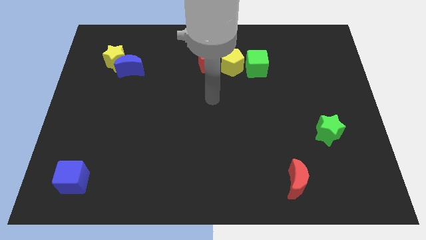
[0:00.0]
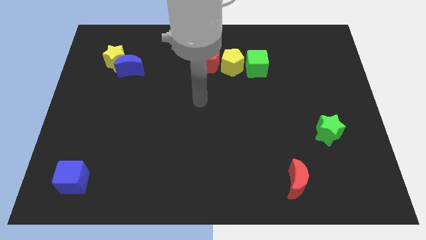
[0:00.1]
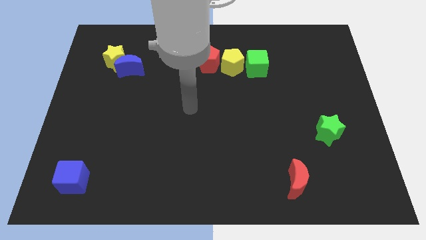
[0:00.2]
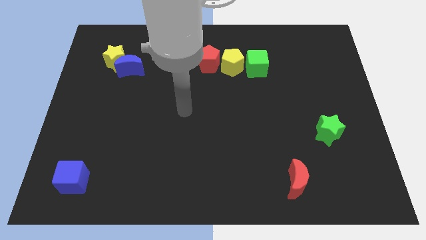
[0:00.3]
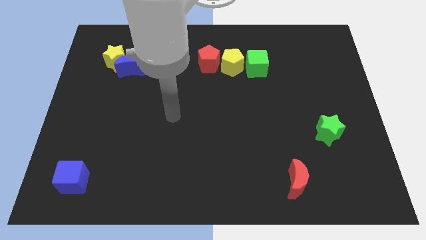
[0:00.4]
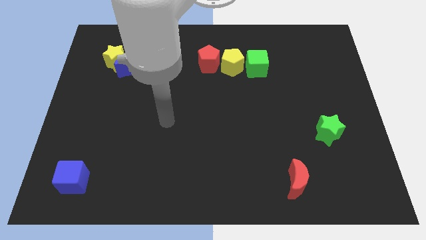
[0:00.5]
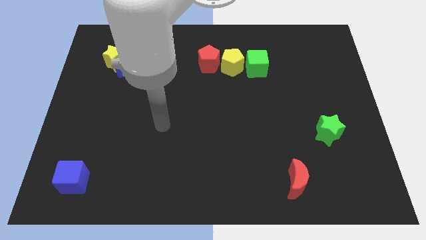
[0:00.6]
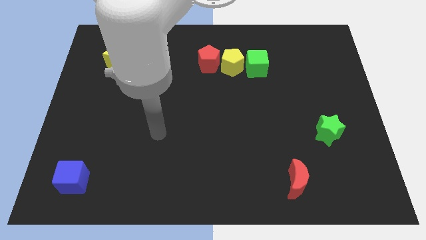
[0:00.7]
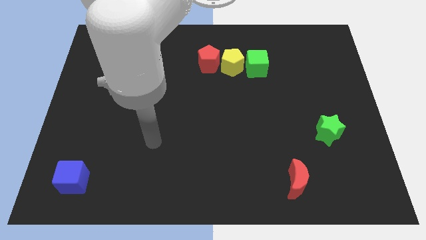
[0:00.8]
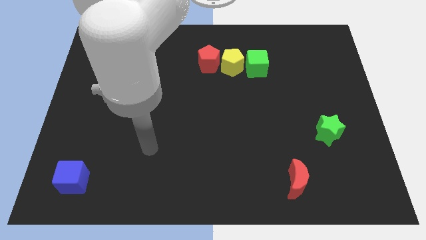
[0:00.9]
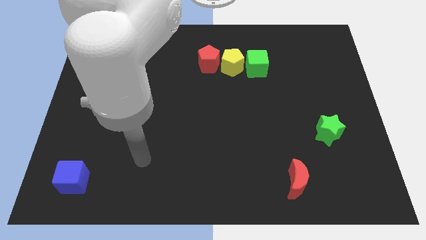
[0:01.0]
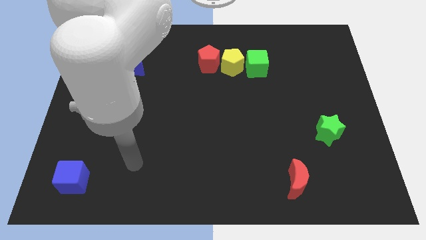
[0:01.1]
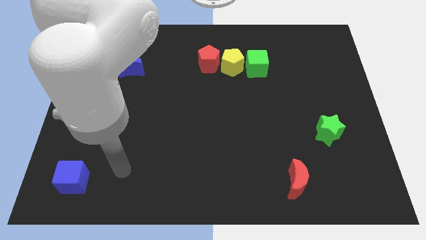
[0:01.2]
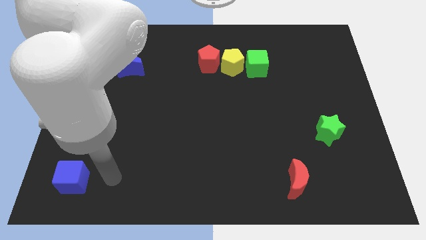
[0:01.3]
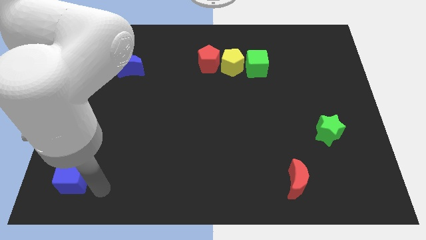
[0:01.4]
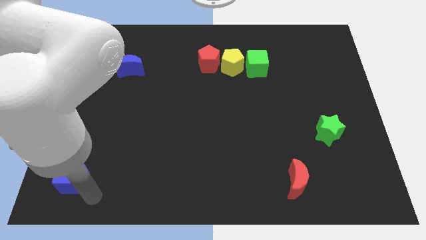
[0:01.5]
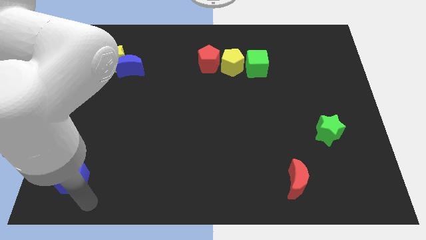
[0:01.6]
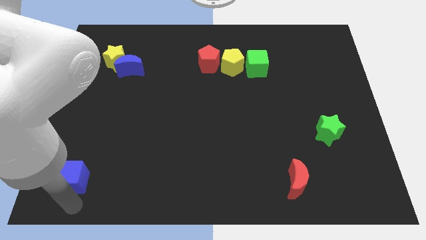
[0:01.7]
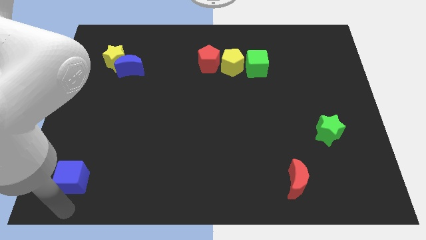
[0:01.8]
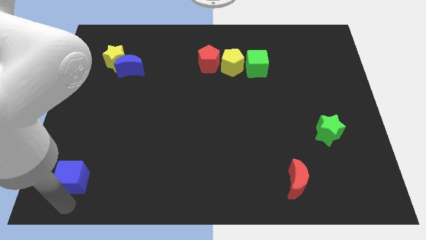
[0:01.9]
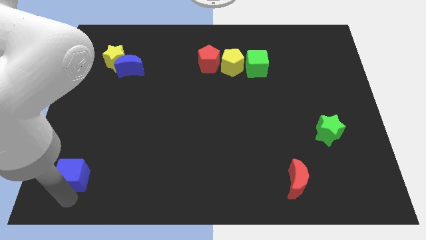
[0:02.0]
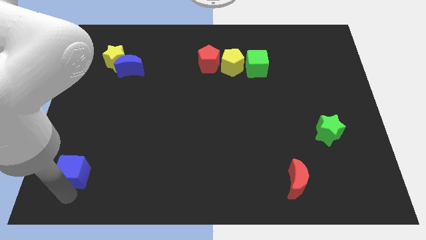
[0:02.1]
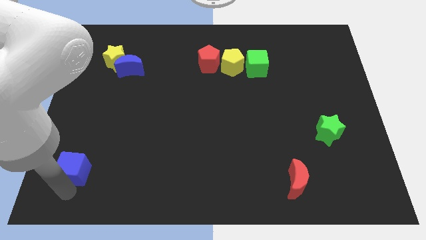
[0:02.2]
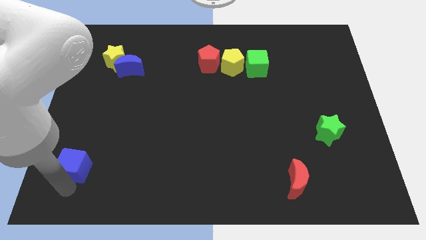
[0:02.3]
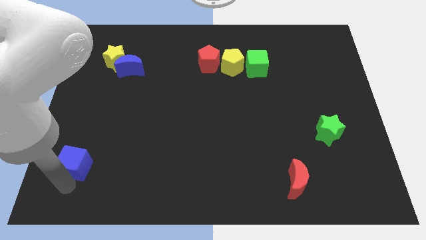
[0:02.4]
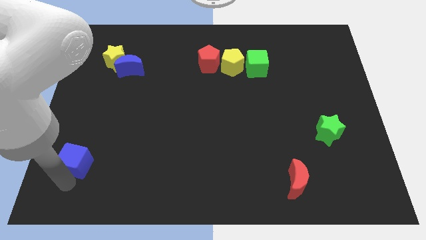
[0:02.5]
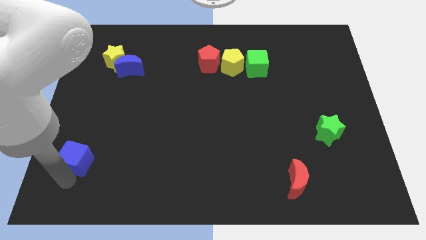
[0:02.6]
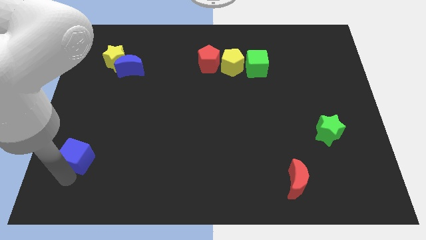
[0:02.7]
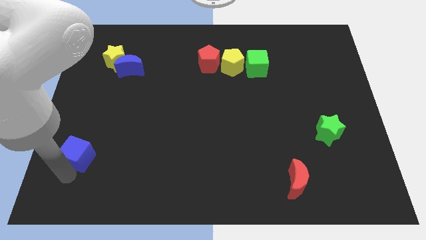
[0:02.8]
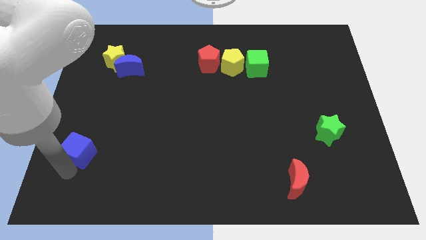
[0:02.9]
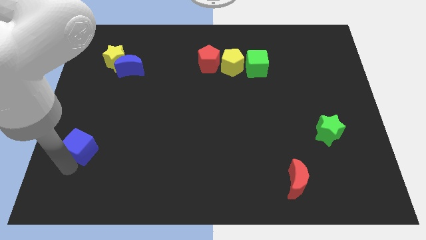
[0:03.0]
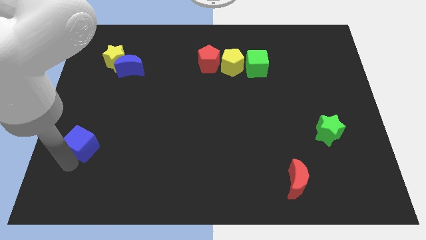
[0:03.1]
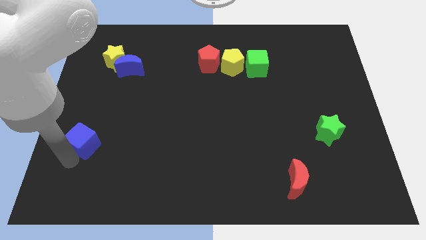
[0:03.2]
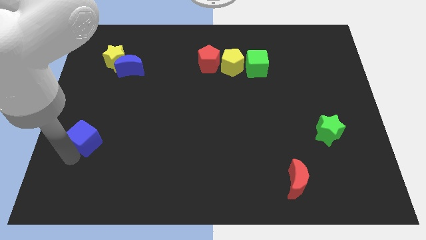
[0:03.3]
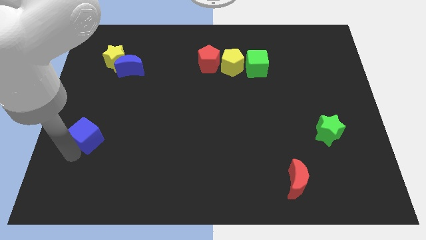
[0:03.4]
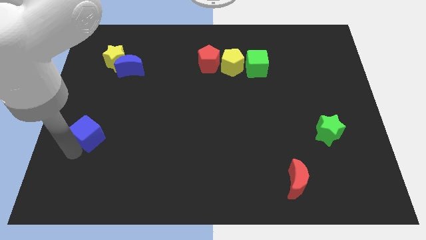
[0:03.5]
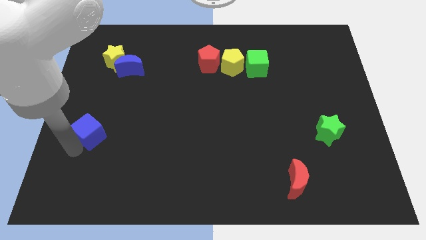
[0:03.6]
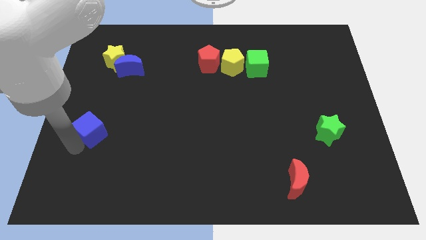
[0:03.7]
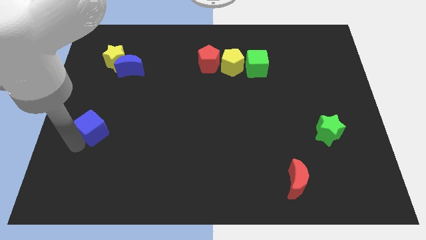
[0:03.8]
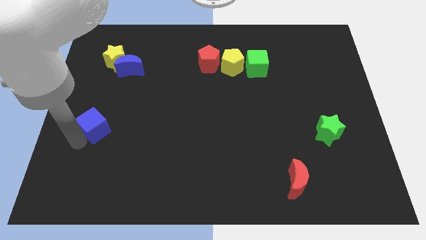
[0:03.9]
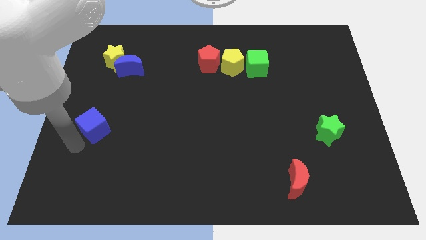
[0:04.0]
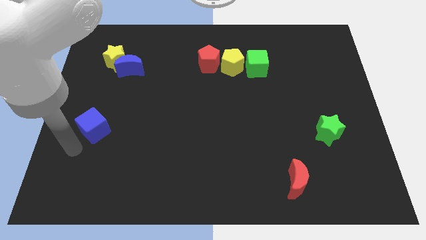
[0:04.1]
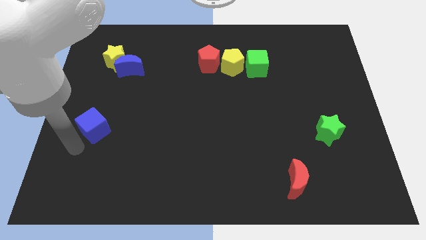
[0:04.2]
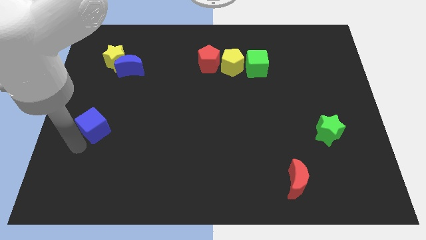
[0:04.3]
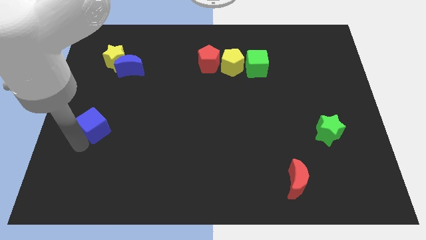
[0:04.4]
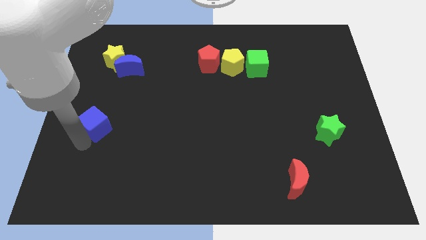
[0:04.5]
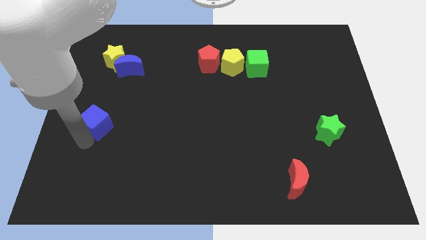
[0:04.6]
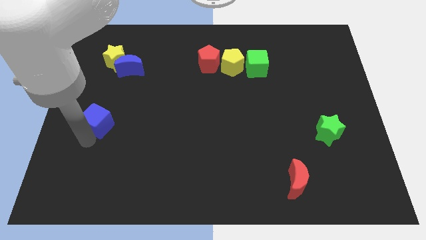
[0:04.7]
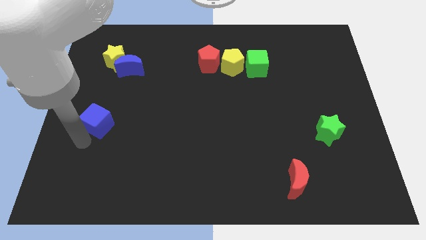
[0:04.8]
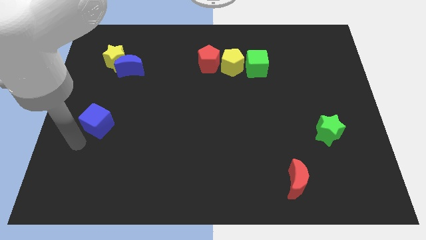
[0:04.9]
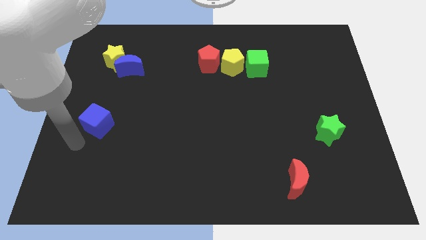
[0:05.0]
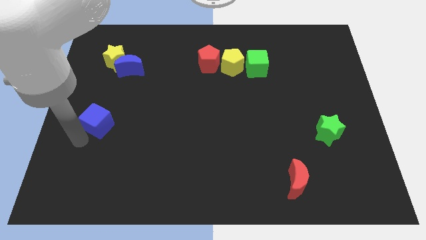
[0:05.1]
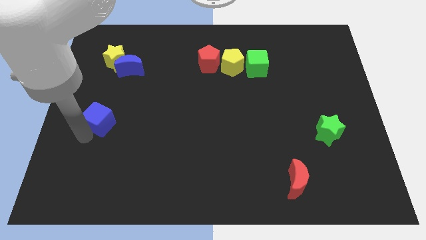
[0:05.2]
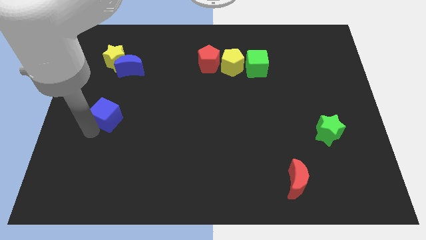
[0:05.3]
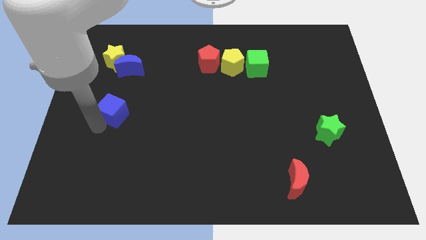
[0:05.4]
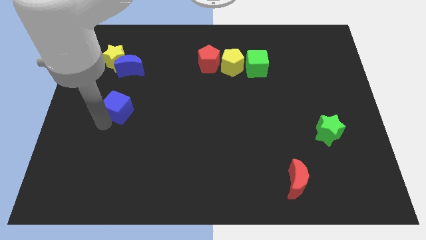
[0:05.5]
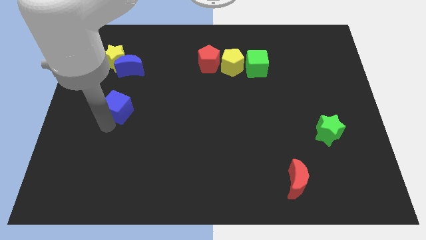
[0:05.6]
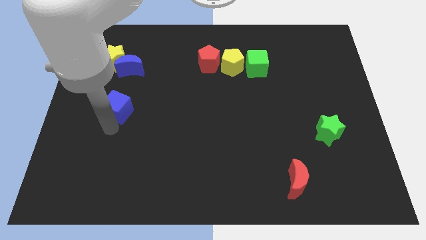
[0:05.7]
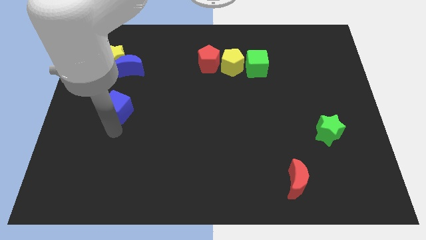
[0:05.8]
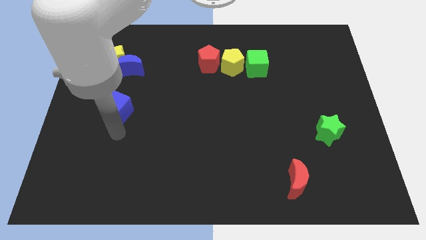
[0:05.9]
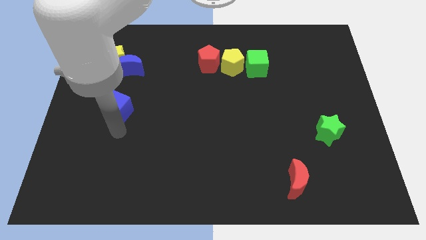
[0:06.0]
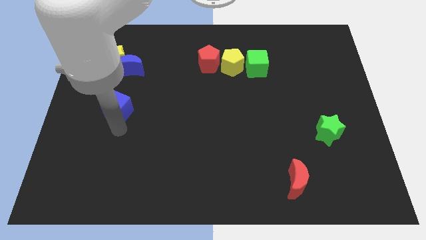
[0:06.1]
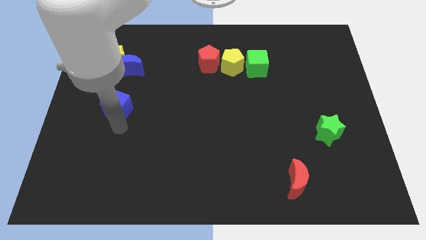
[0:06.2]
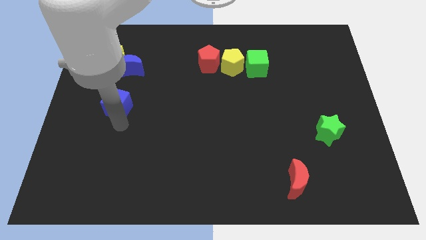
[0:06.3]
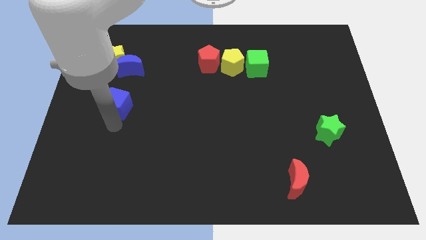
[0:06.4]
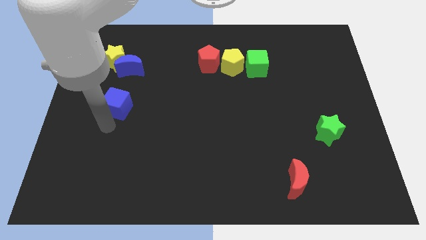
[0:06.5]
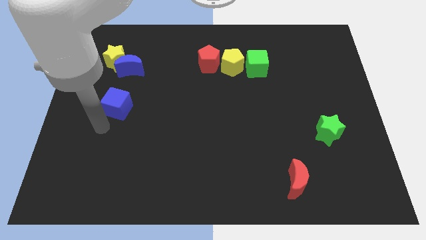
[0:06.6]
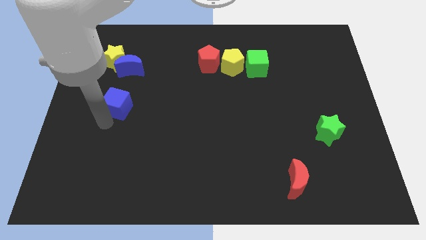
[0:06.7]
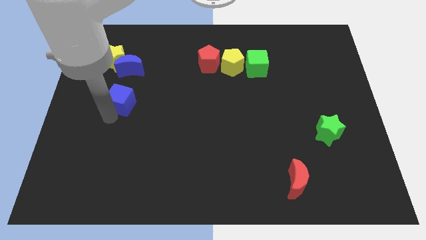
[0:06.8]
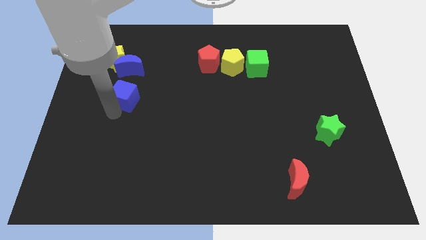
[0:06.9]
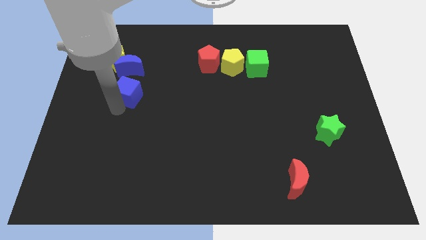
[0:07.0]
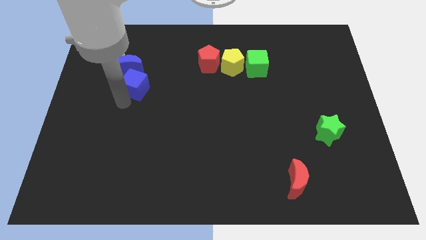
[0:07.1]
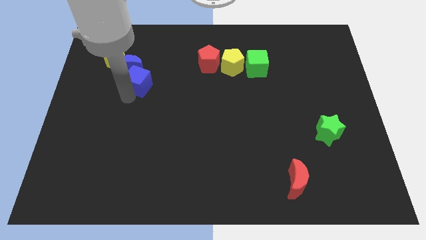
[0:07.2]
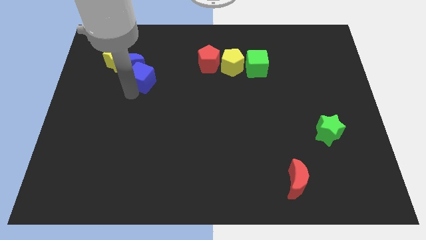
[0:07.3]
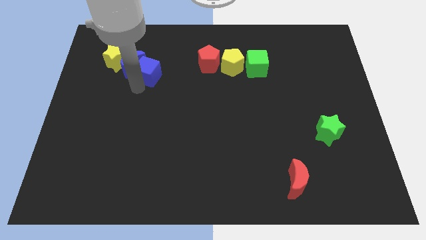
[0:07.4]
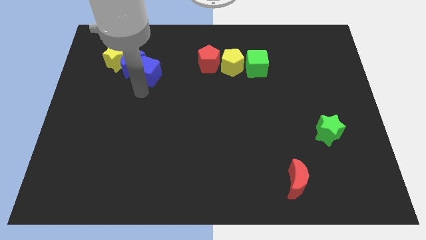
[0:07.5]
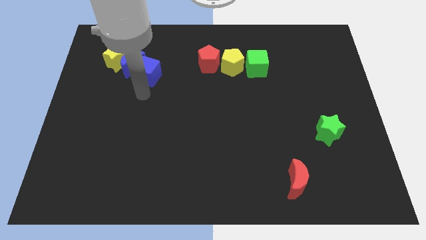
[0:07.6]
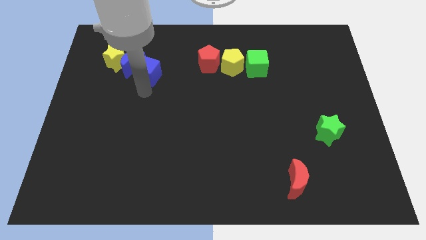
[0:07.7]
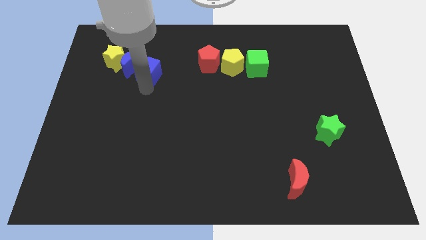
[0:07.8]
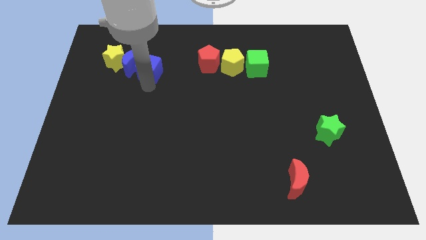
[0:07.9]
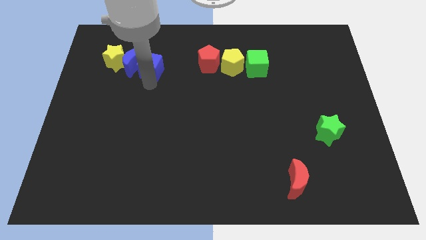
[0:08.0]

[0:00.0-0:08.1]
push the blue cube to the top right of the blue moon
